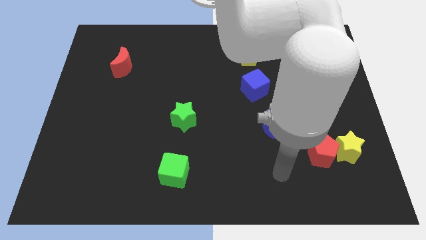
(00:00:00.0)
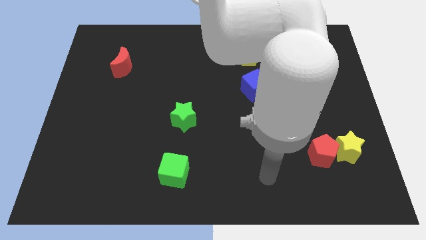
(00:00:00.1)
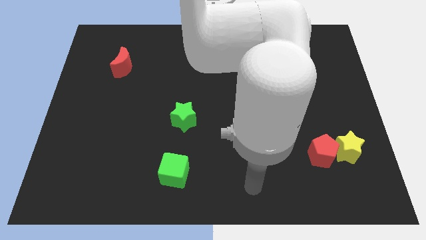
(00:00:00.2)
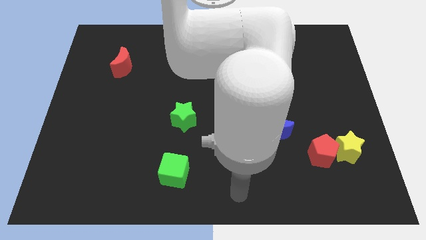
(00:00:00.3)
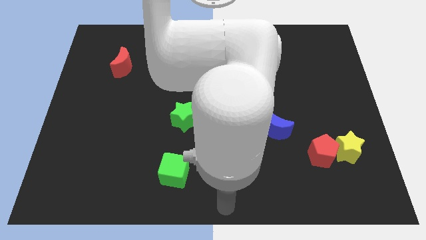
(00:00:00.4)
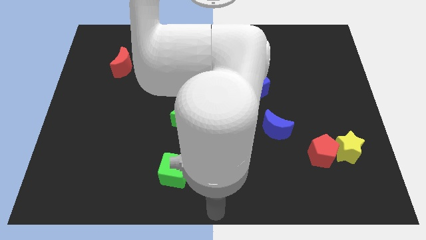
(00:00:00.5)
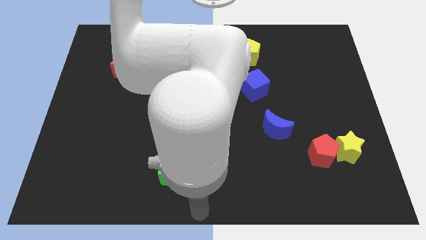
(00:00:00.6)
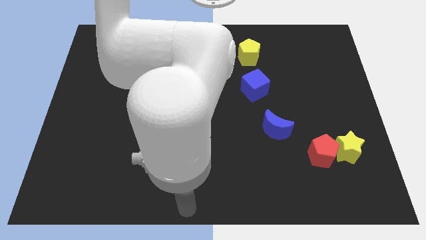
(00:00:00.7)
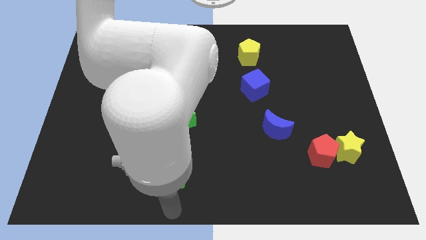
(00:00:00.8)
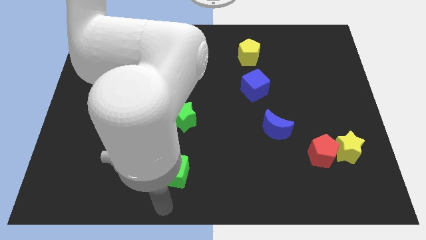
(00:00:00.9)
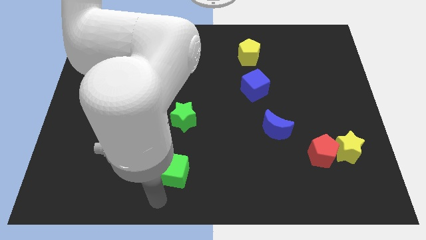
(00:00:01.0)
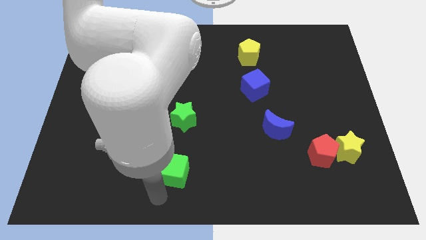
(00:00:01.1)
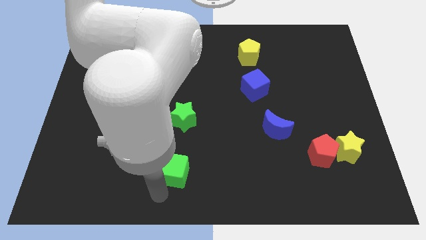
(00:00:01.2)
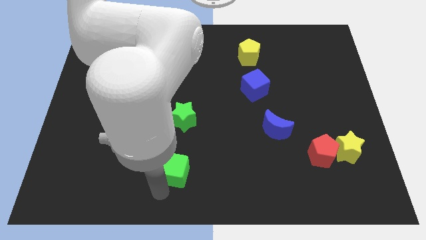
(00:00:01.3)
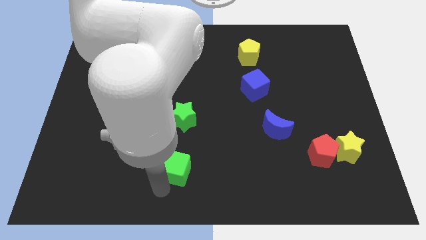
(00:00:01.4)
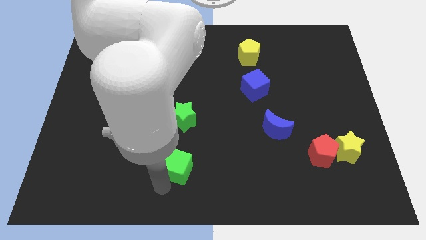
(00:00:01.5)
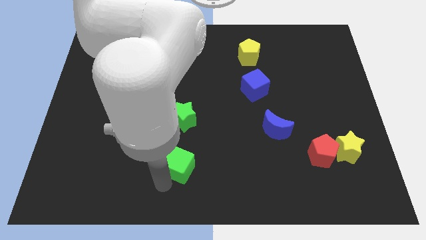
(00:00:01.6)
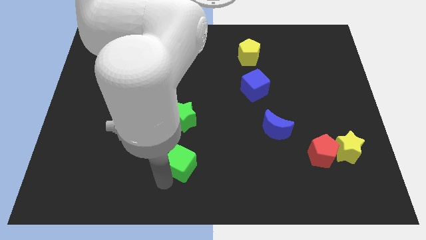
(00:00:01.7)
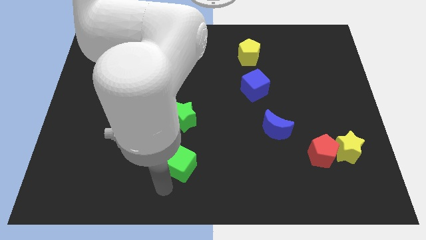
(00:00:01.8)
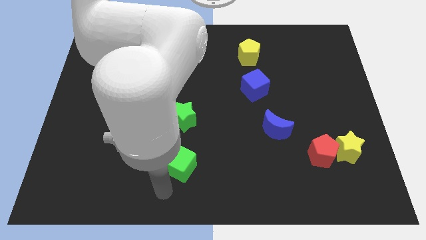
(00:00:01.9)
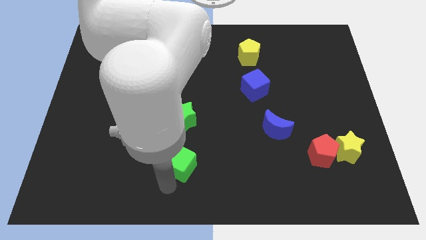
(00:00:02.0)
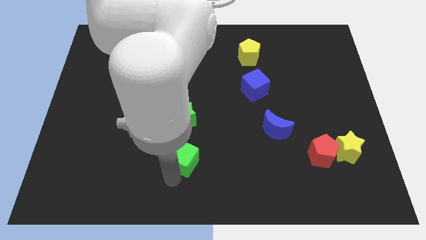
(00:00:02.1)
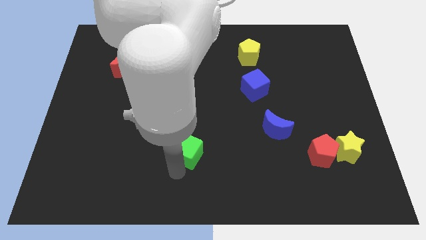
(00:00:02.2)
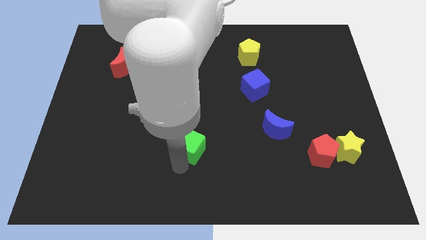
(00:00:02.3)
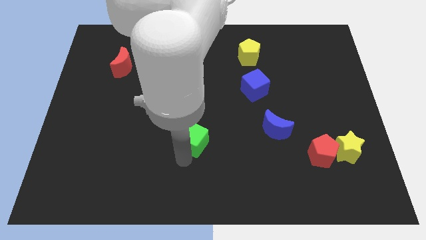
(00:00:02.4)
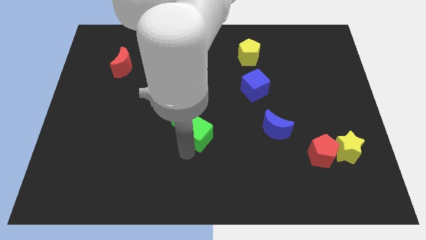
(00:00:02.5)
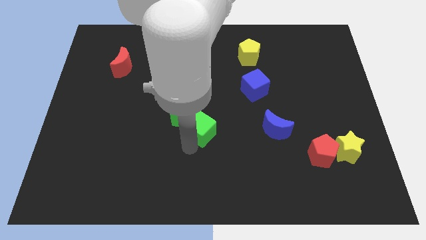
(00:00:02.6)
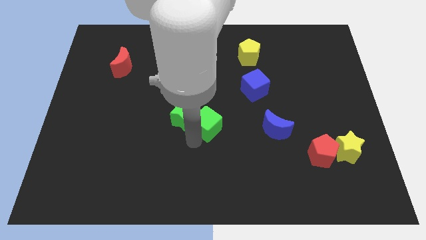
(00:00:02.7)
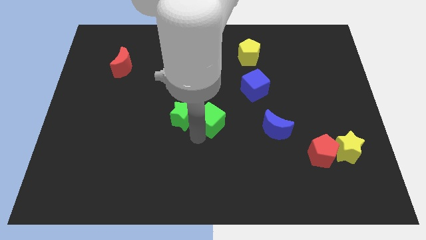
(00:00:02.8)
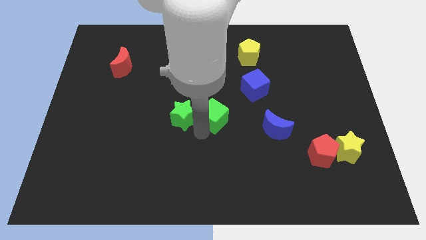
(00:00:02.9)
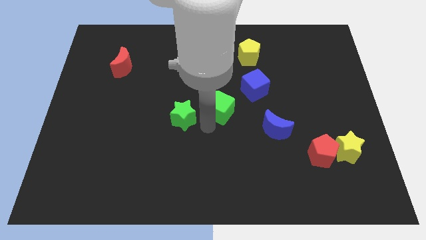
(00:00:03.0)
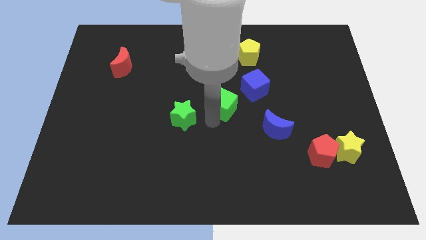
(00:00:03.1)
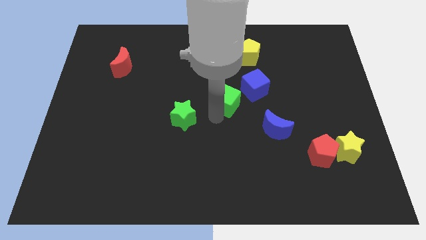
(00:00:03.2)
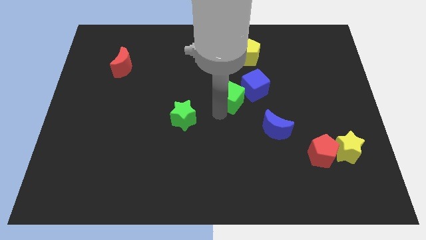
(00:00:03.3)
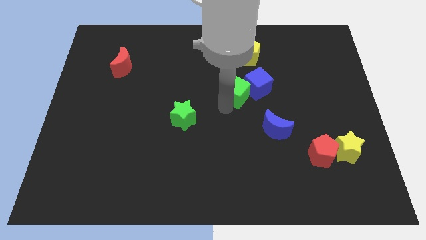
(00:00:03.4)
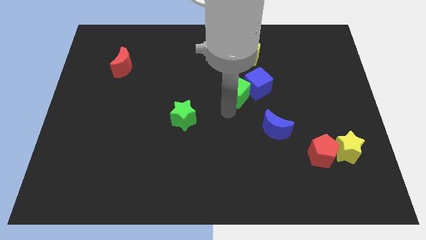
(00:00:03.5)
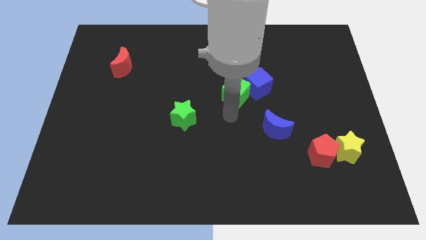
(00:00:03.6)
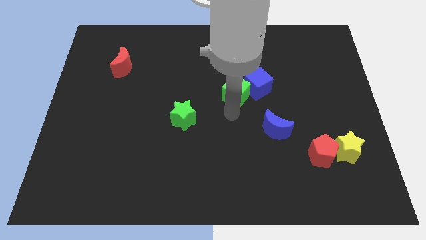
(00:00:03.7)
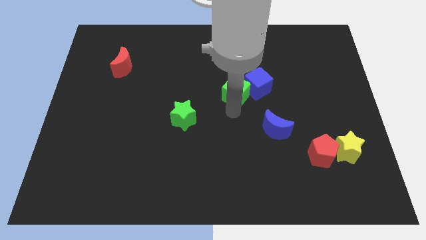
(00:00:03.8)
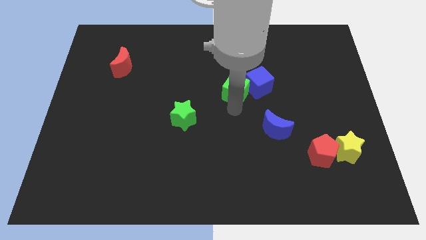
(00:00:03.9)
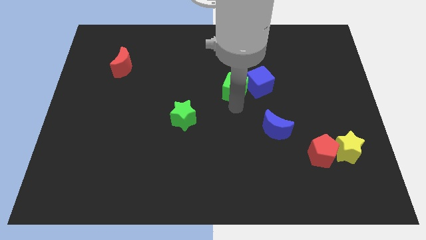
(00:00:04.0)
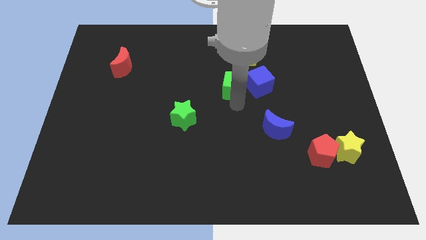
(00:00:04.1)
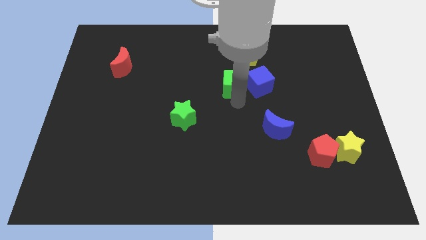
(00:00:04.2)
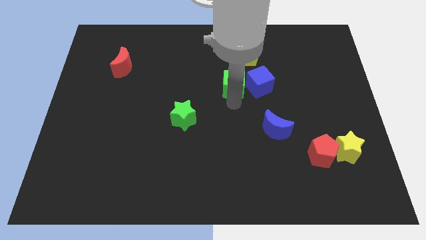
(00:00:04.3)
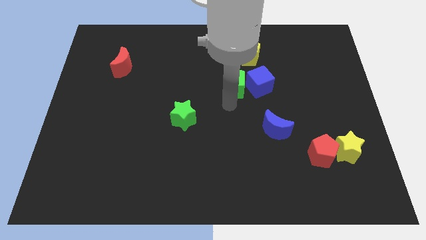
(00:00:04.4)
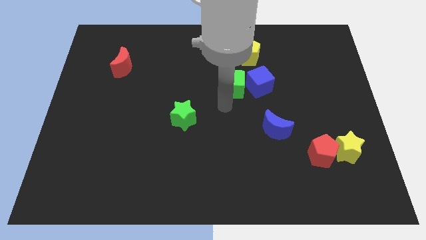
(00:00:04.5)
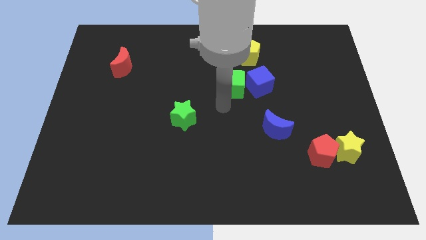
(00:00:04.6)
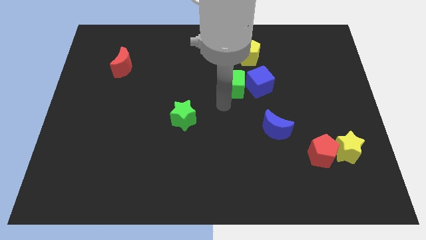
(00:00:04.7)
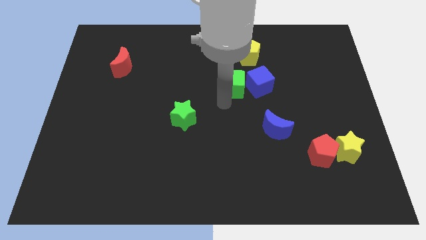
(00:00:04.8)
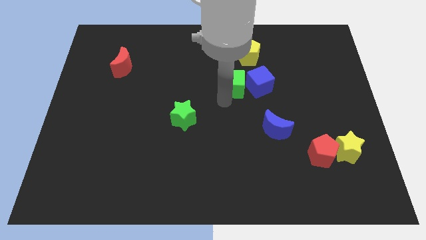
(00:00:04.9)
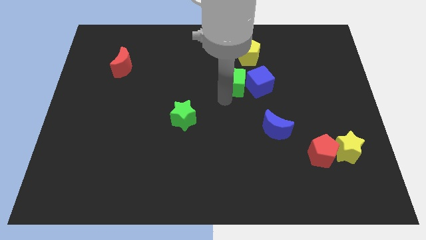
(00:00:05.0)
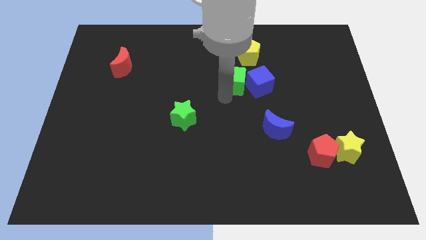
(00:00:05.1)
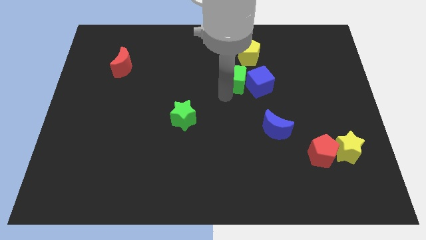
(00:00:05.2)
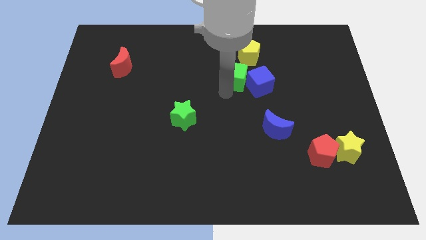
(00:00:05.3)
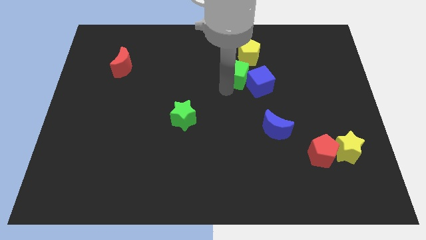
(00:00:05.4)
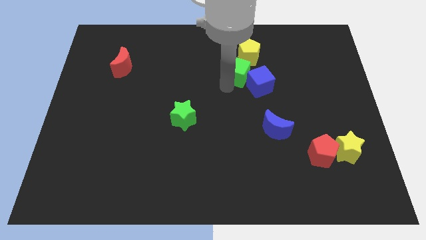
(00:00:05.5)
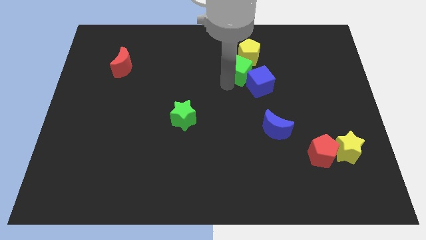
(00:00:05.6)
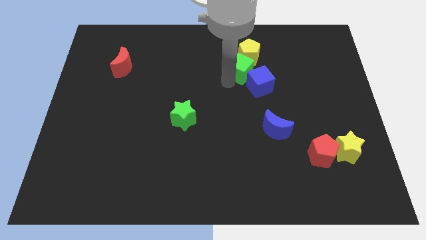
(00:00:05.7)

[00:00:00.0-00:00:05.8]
put the green cube close to the yellow pentagon

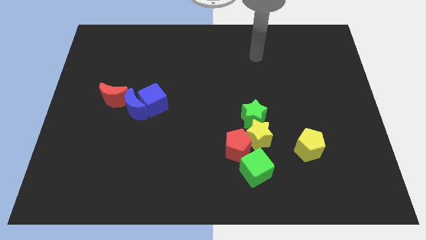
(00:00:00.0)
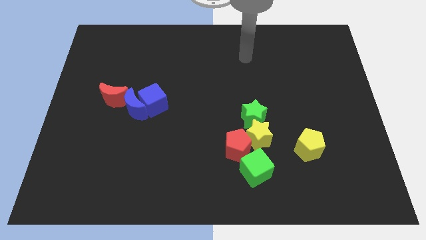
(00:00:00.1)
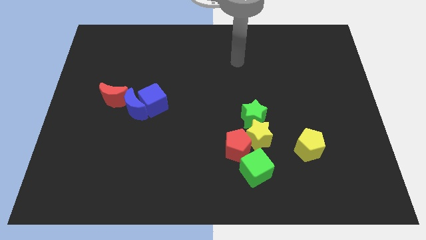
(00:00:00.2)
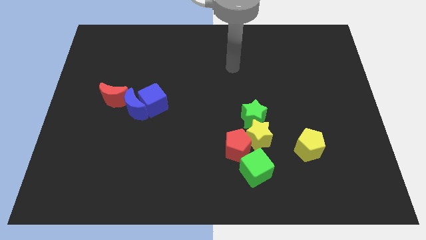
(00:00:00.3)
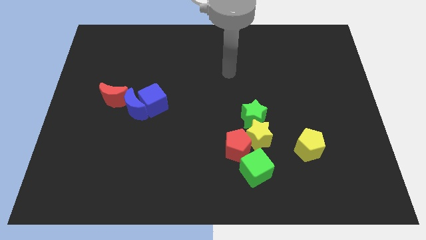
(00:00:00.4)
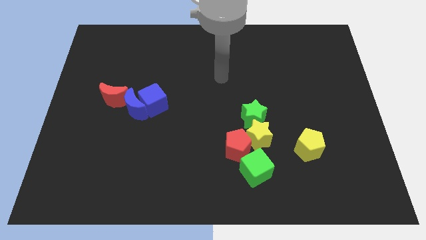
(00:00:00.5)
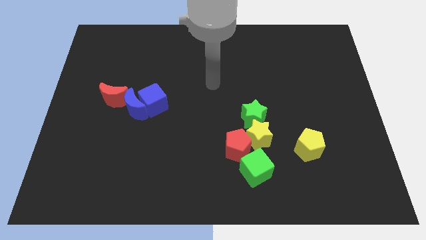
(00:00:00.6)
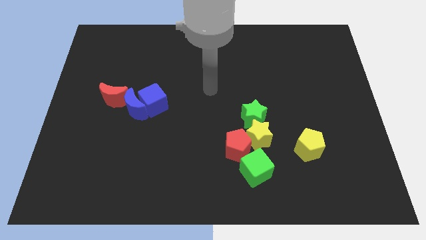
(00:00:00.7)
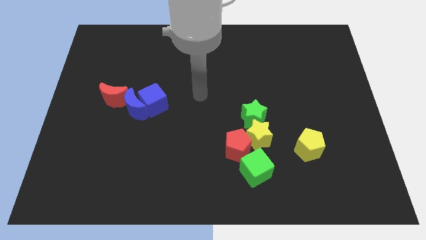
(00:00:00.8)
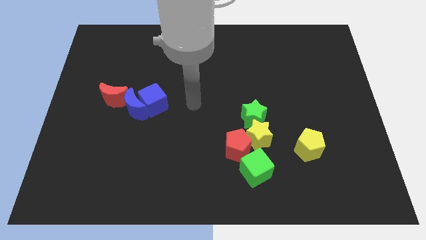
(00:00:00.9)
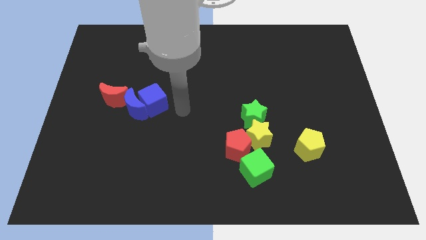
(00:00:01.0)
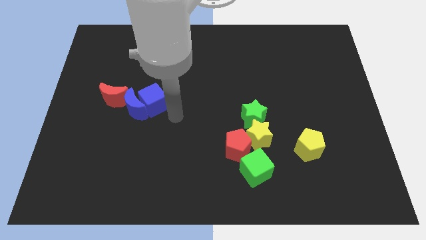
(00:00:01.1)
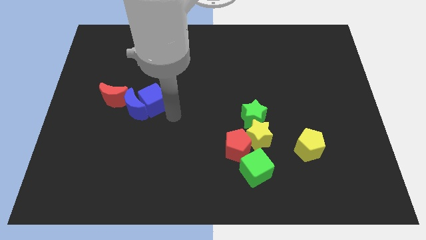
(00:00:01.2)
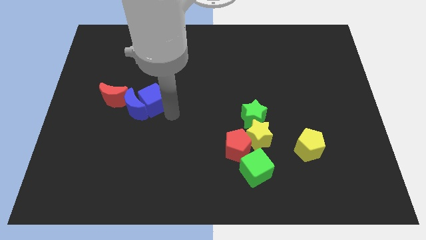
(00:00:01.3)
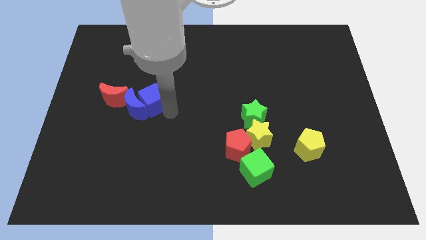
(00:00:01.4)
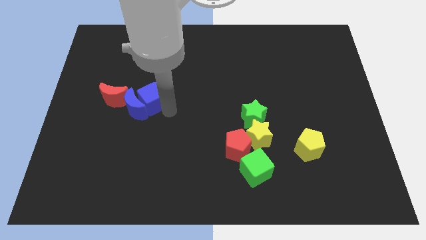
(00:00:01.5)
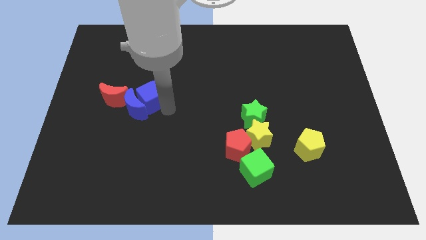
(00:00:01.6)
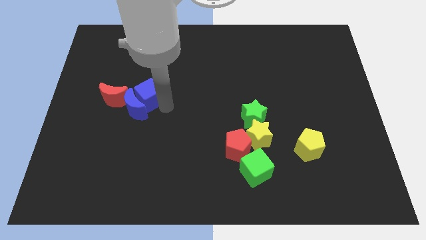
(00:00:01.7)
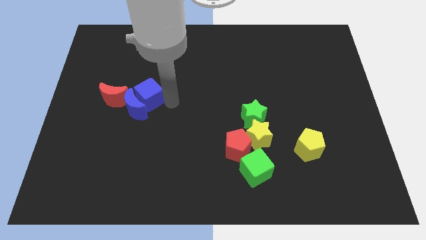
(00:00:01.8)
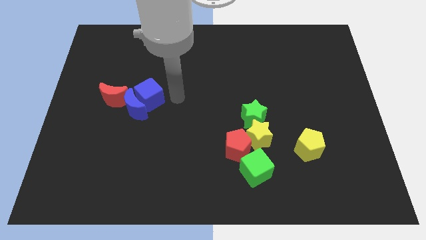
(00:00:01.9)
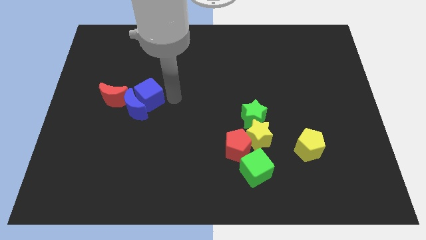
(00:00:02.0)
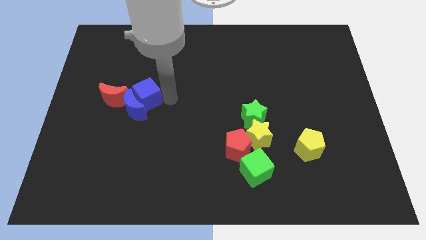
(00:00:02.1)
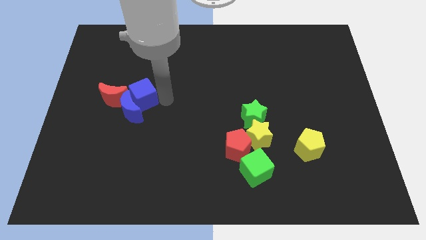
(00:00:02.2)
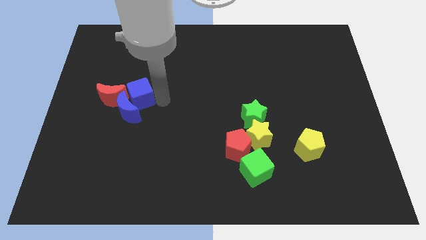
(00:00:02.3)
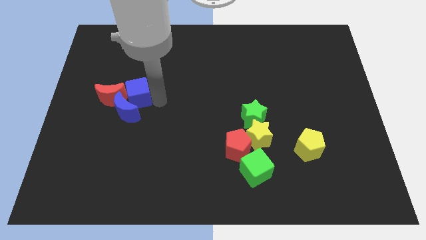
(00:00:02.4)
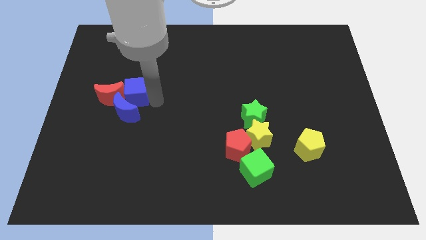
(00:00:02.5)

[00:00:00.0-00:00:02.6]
move the blue cube next to the red moon
